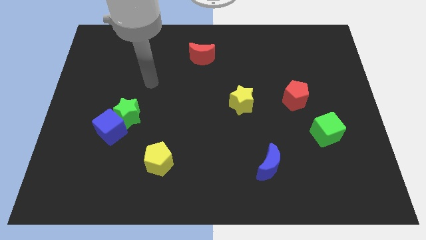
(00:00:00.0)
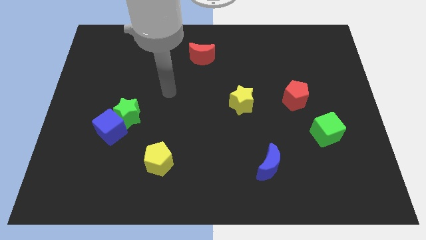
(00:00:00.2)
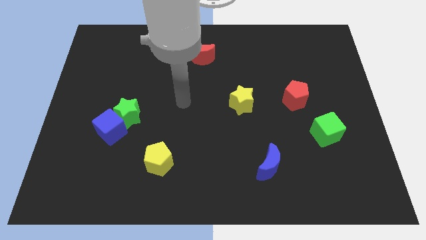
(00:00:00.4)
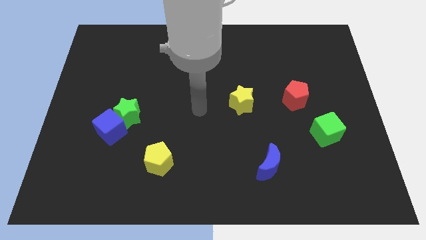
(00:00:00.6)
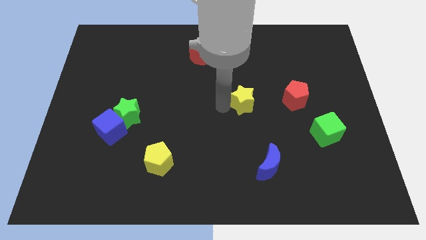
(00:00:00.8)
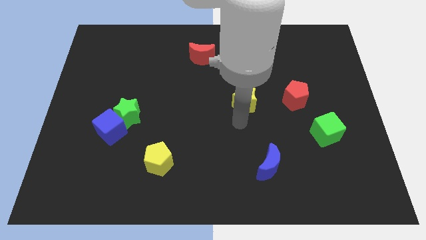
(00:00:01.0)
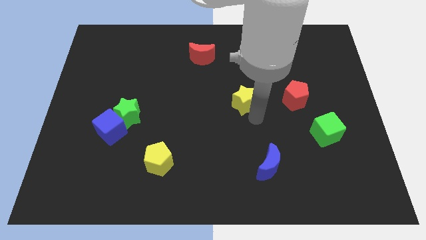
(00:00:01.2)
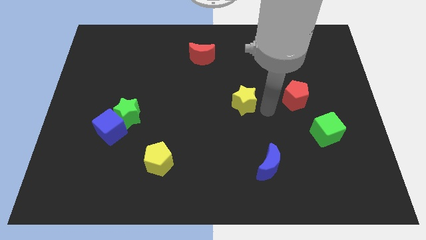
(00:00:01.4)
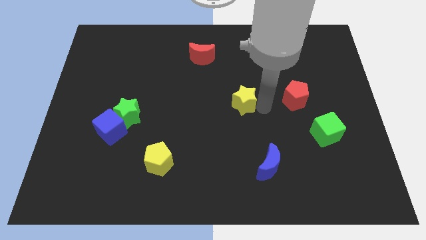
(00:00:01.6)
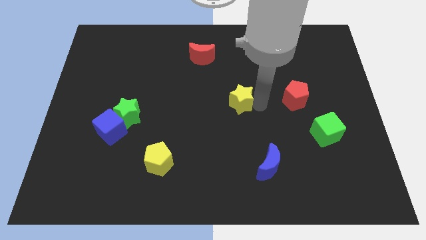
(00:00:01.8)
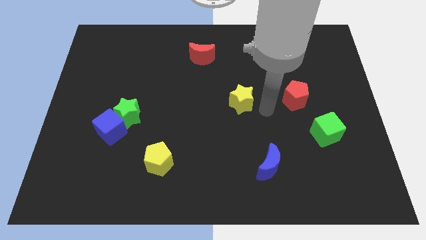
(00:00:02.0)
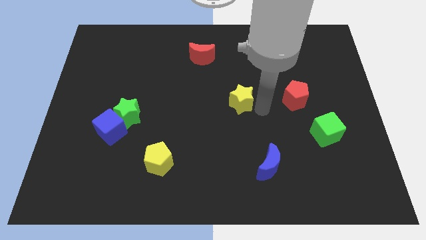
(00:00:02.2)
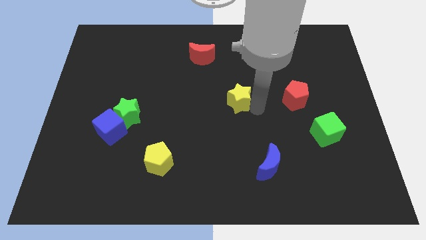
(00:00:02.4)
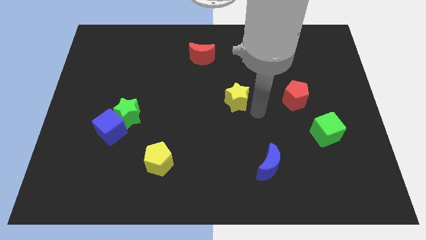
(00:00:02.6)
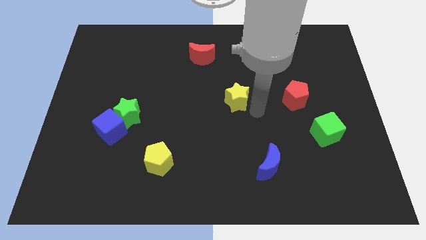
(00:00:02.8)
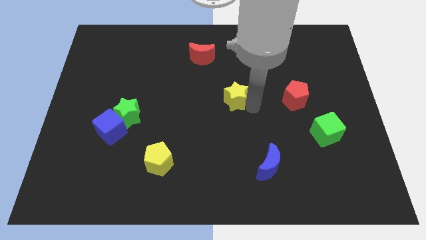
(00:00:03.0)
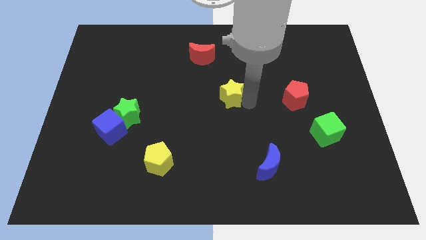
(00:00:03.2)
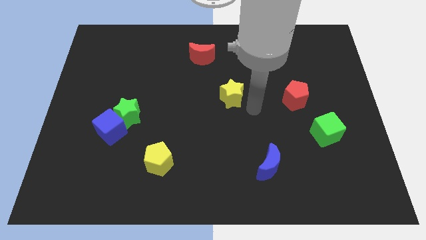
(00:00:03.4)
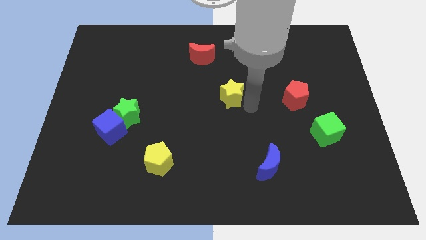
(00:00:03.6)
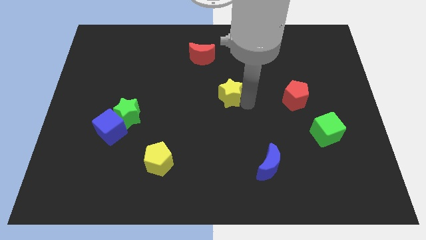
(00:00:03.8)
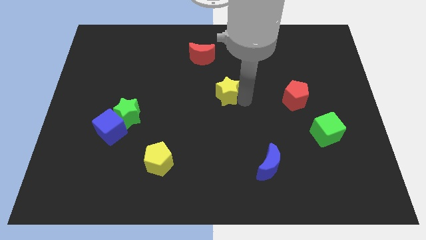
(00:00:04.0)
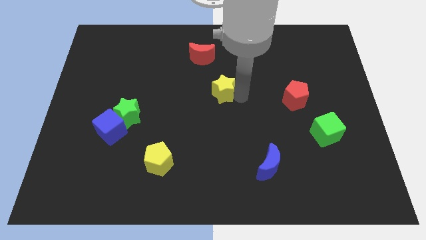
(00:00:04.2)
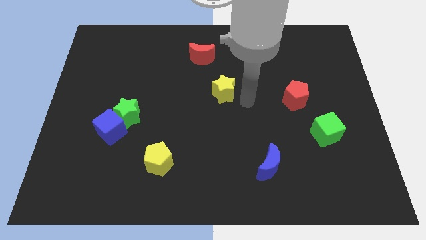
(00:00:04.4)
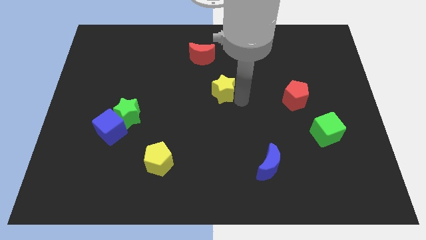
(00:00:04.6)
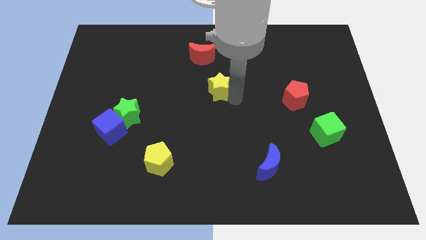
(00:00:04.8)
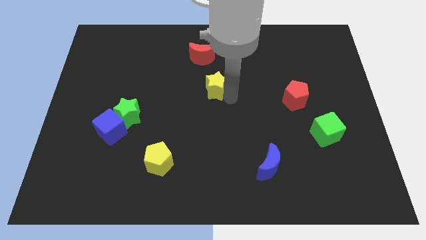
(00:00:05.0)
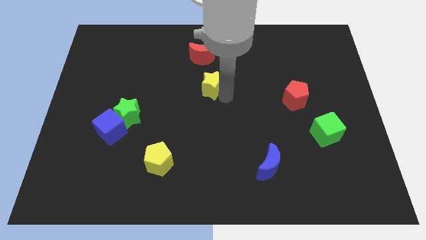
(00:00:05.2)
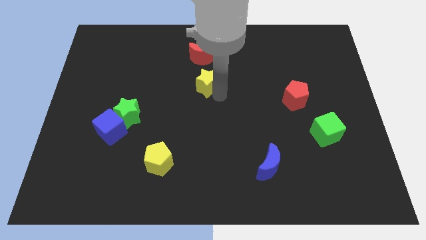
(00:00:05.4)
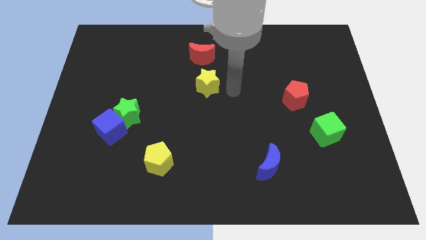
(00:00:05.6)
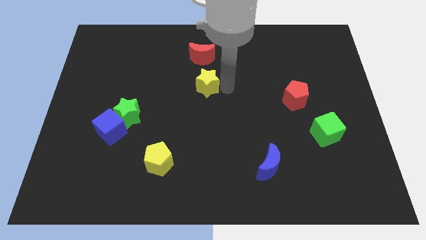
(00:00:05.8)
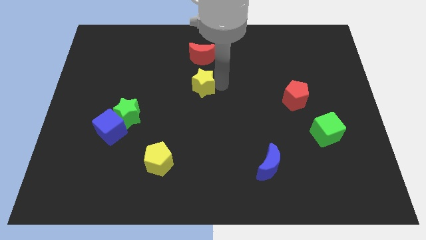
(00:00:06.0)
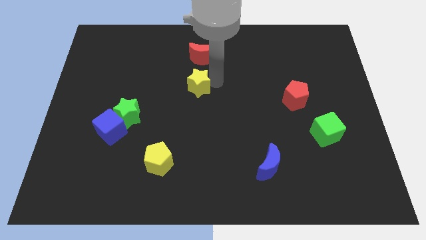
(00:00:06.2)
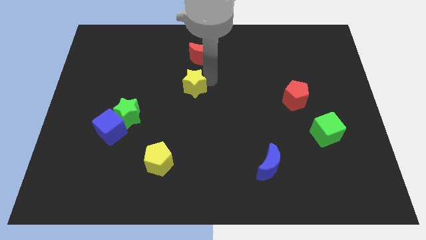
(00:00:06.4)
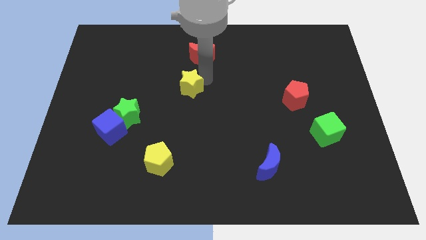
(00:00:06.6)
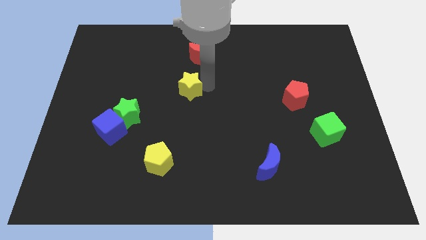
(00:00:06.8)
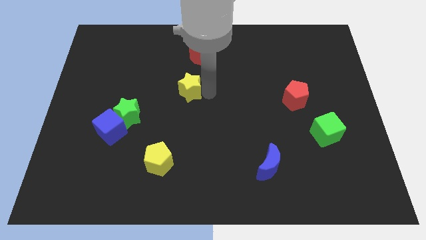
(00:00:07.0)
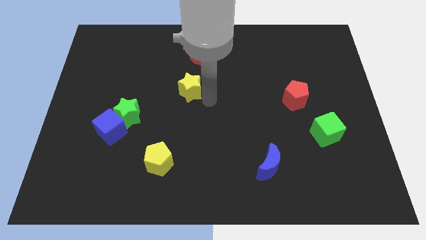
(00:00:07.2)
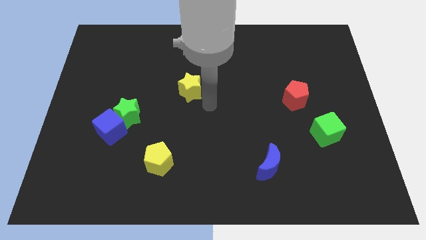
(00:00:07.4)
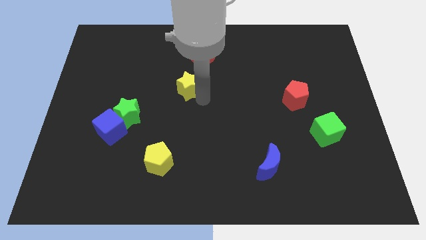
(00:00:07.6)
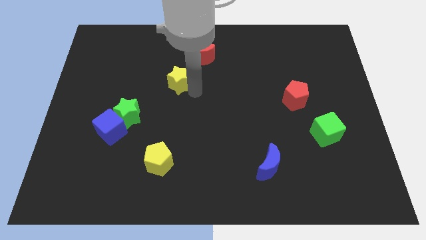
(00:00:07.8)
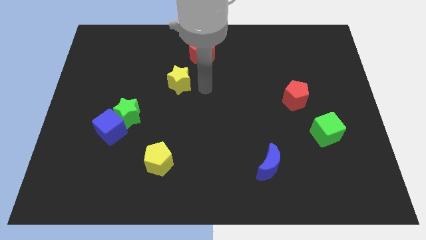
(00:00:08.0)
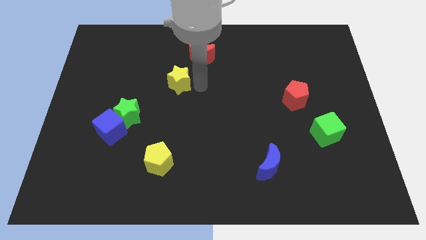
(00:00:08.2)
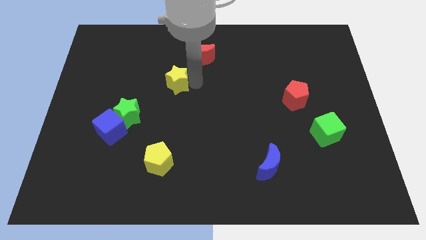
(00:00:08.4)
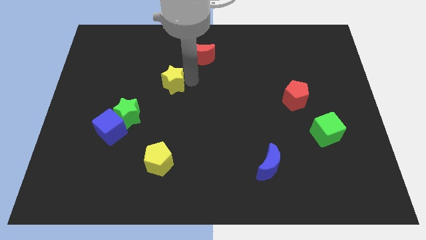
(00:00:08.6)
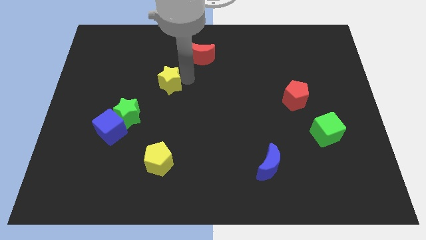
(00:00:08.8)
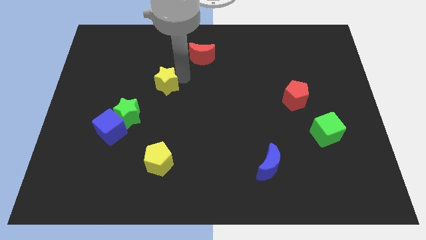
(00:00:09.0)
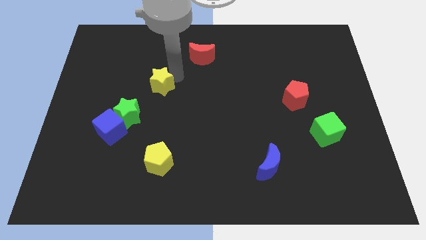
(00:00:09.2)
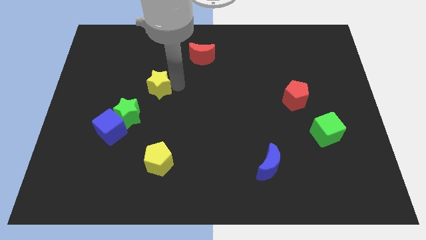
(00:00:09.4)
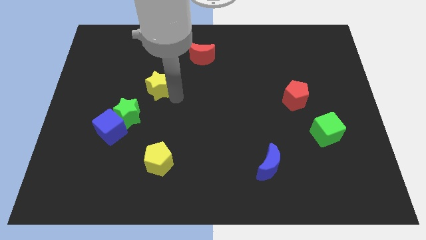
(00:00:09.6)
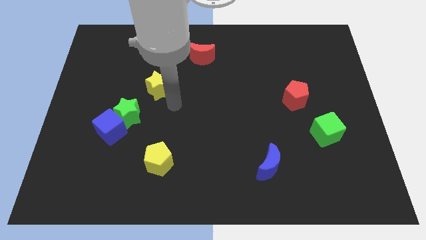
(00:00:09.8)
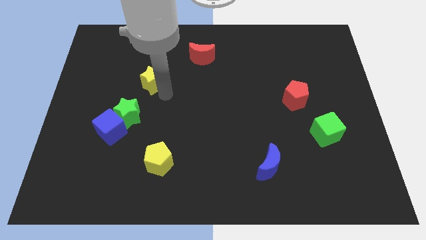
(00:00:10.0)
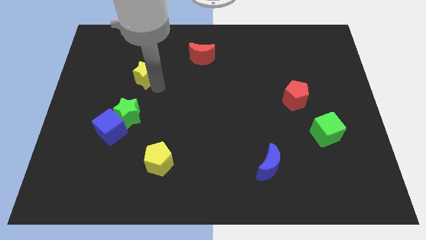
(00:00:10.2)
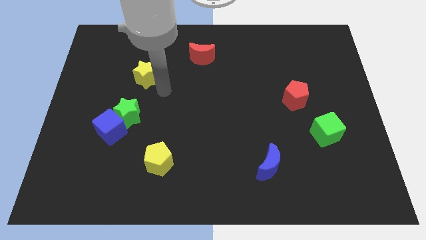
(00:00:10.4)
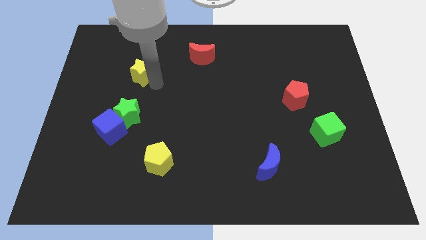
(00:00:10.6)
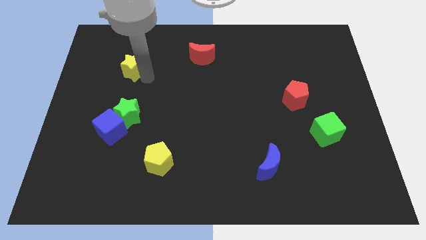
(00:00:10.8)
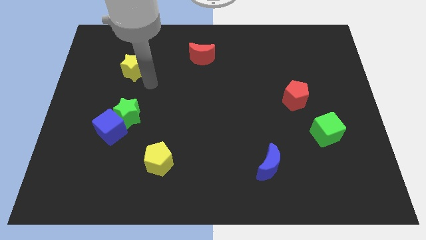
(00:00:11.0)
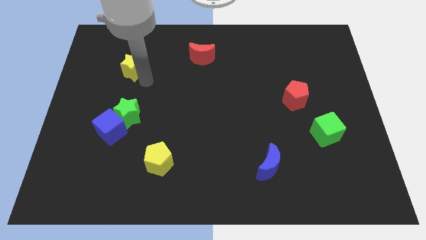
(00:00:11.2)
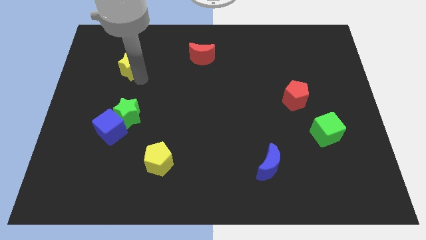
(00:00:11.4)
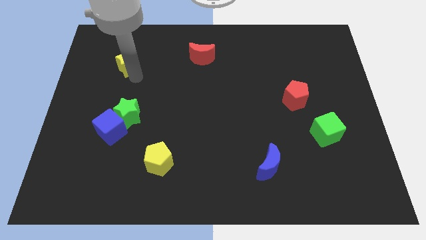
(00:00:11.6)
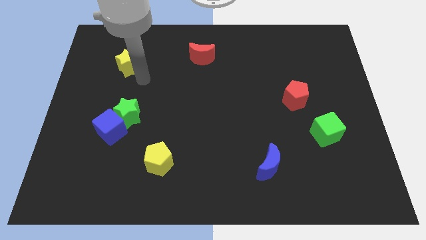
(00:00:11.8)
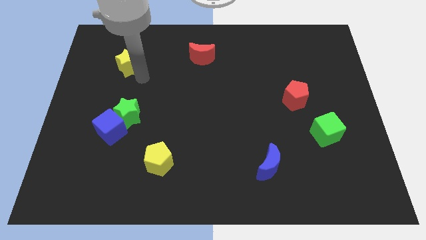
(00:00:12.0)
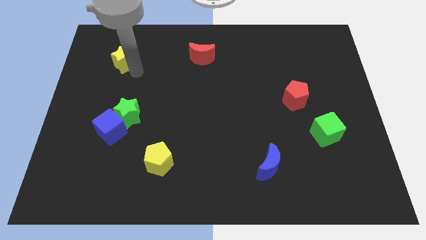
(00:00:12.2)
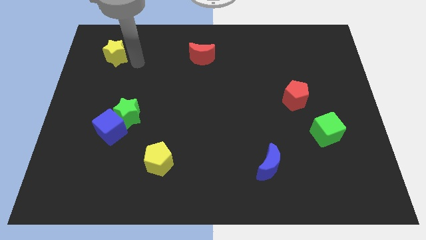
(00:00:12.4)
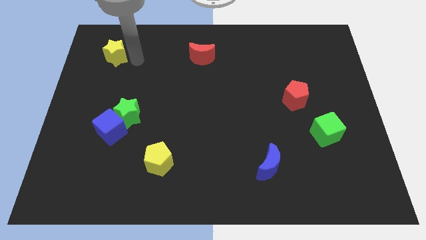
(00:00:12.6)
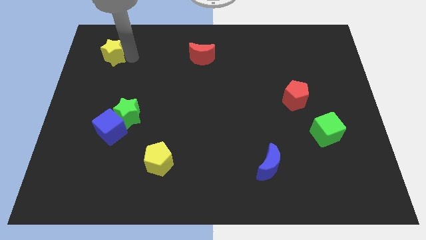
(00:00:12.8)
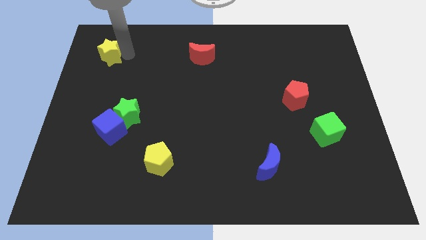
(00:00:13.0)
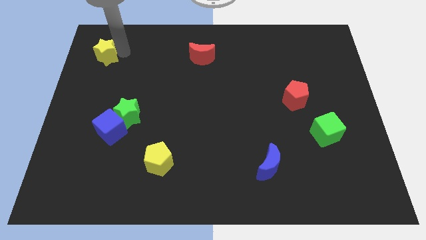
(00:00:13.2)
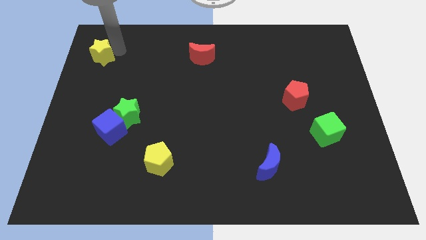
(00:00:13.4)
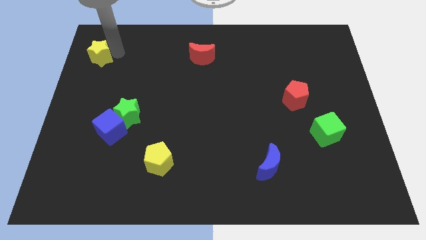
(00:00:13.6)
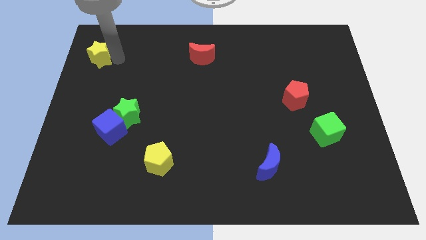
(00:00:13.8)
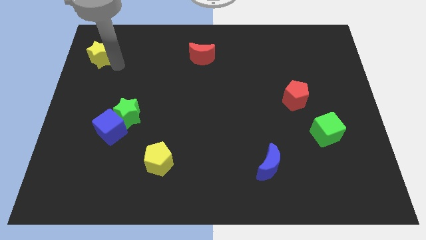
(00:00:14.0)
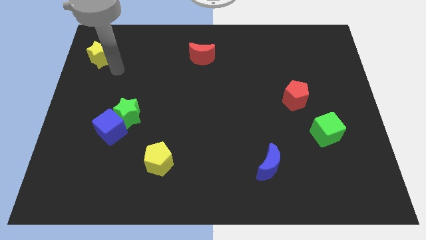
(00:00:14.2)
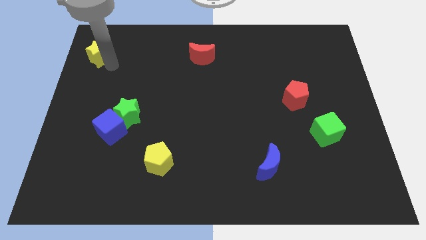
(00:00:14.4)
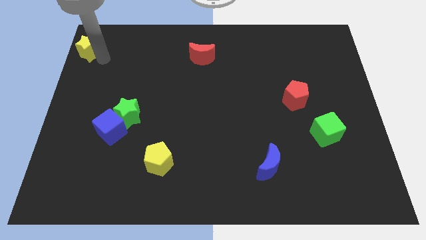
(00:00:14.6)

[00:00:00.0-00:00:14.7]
slide the yellow star to the upper left corner
